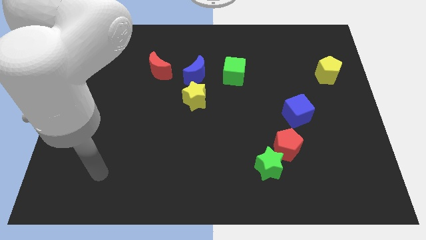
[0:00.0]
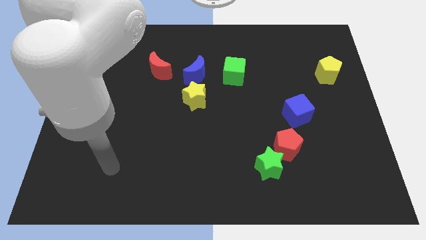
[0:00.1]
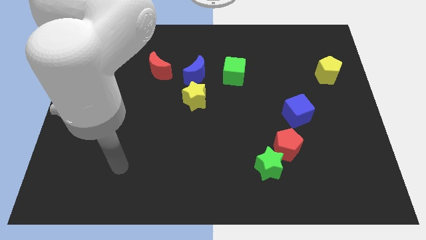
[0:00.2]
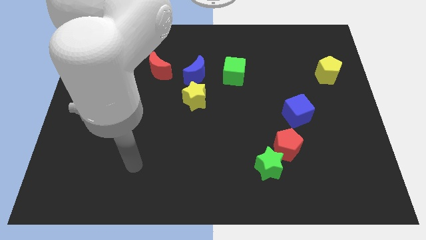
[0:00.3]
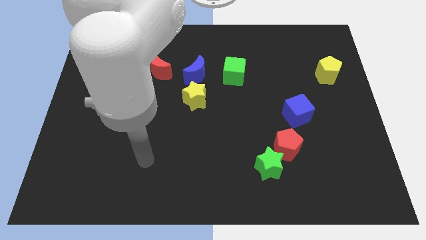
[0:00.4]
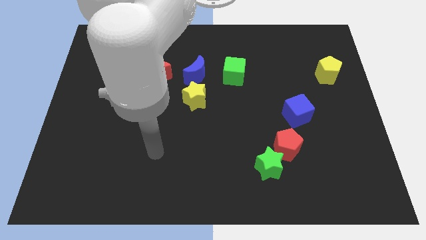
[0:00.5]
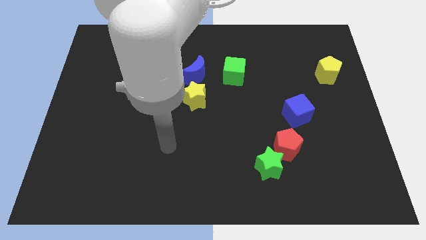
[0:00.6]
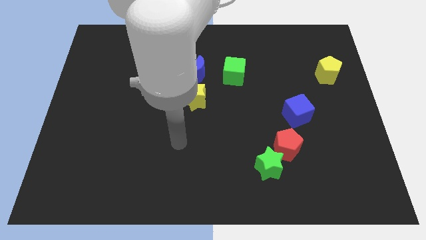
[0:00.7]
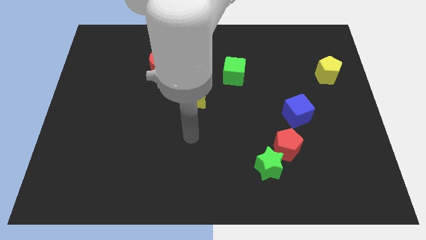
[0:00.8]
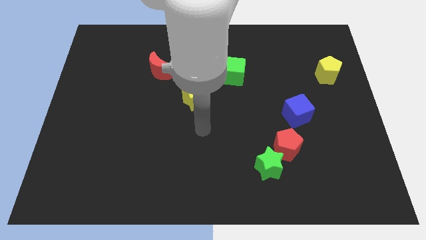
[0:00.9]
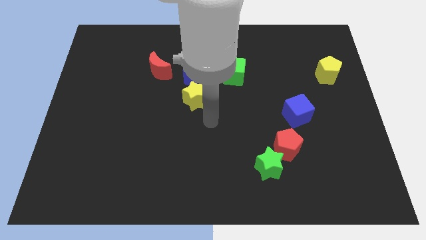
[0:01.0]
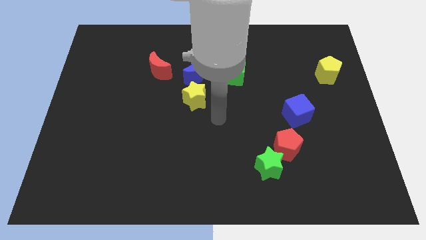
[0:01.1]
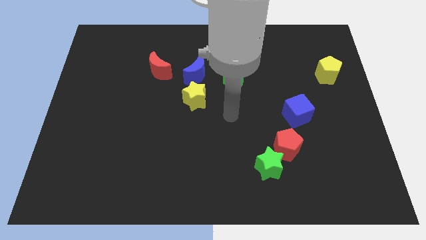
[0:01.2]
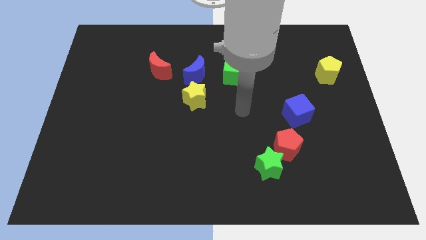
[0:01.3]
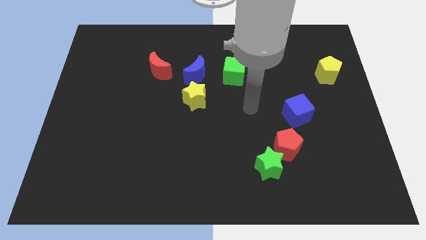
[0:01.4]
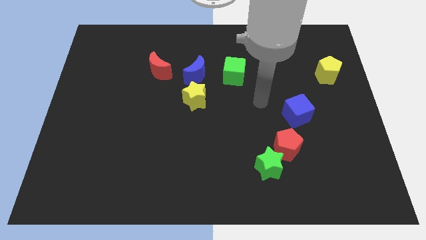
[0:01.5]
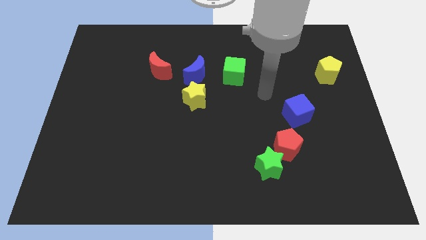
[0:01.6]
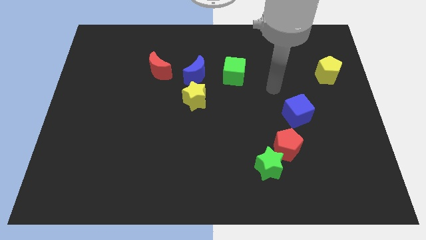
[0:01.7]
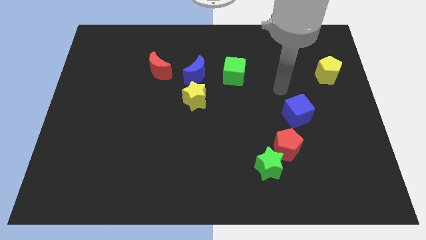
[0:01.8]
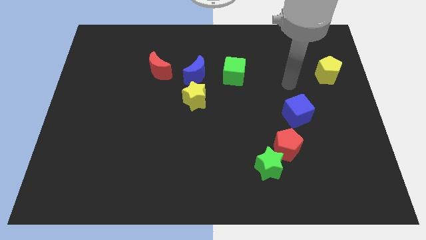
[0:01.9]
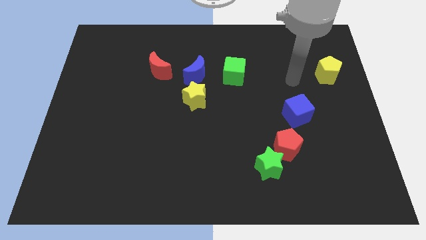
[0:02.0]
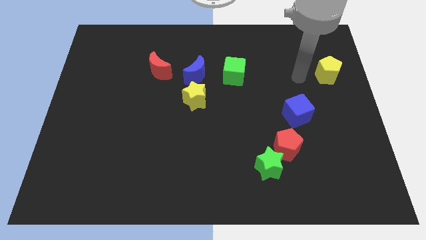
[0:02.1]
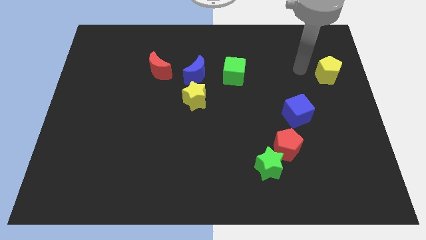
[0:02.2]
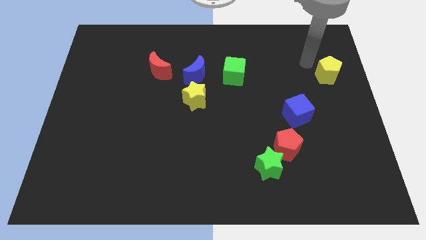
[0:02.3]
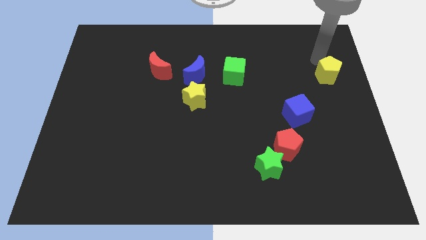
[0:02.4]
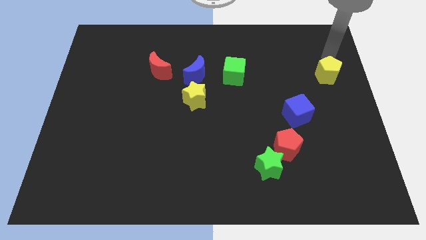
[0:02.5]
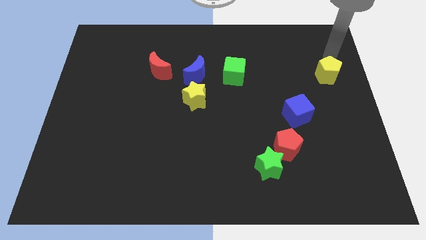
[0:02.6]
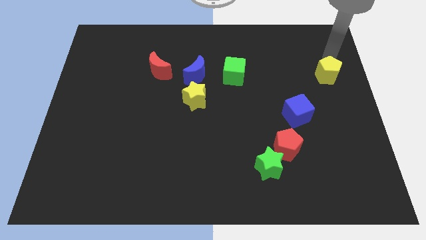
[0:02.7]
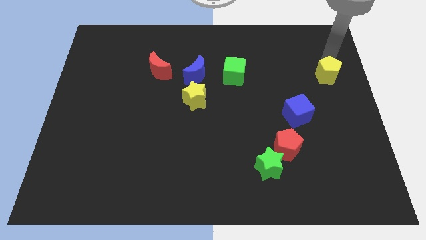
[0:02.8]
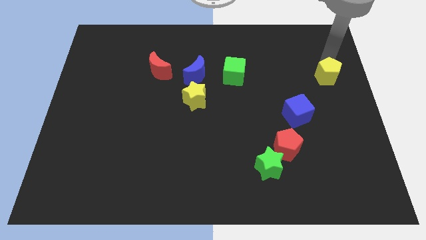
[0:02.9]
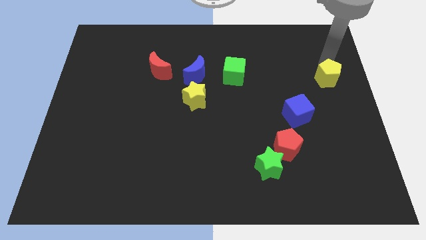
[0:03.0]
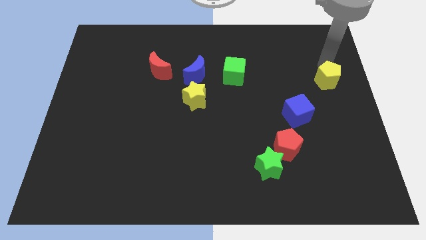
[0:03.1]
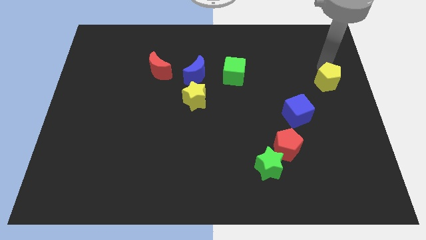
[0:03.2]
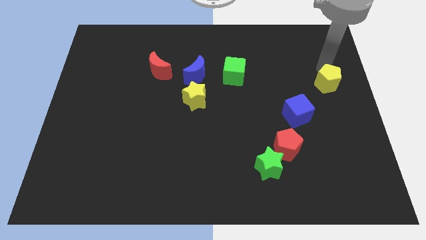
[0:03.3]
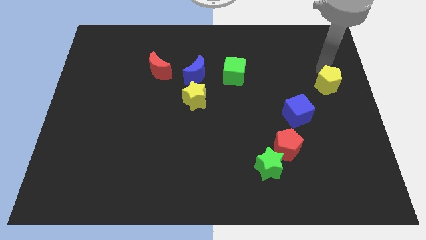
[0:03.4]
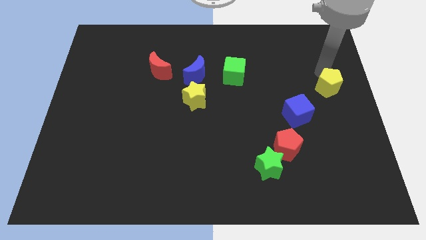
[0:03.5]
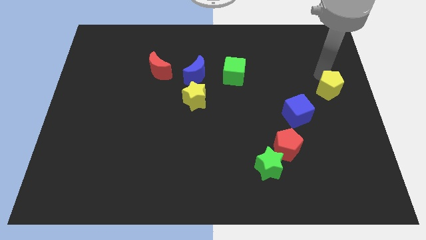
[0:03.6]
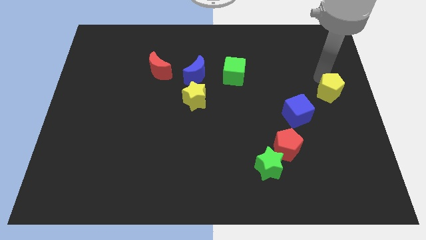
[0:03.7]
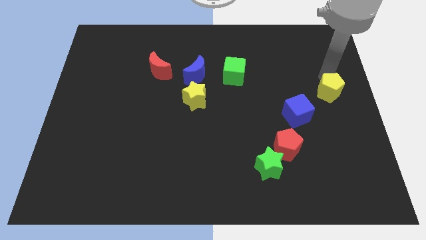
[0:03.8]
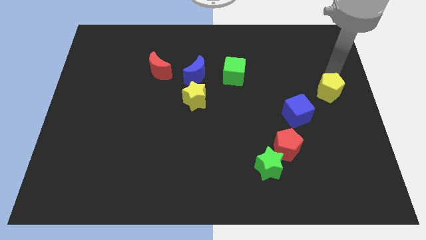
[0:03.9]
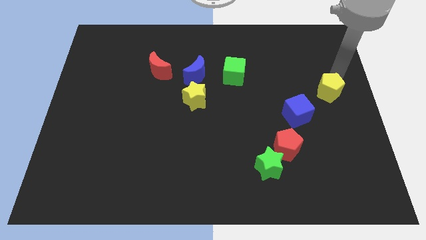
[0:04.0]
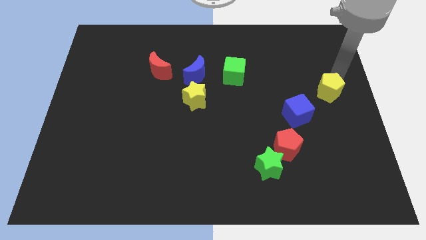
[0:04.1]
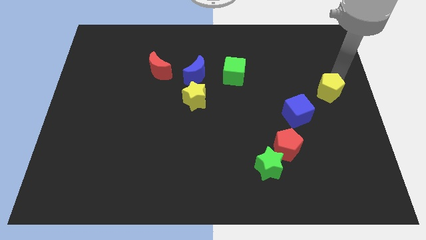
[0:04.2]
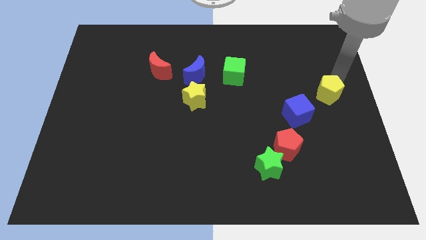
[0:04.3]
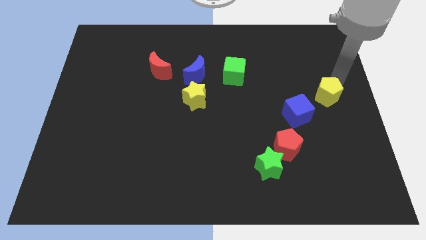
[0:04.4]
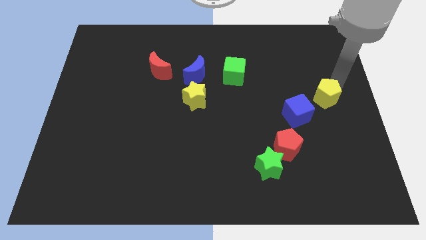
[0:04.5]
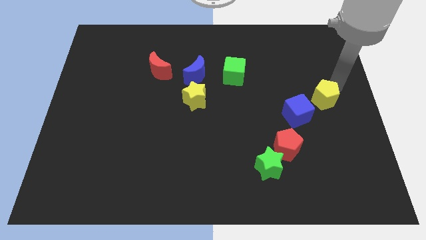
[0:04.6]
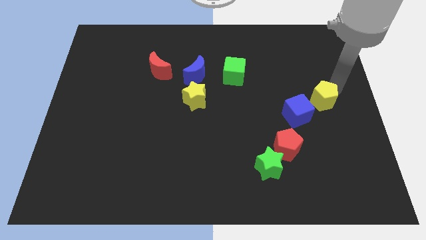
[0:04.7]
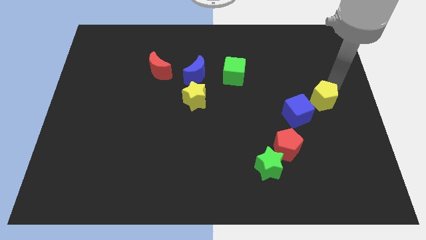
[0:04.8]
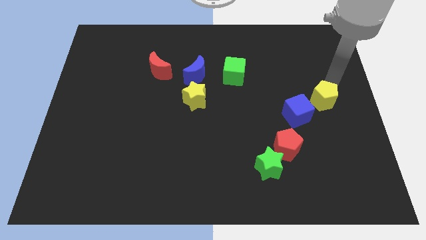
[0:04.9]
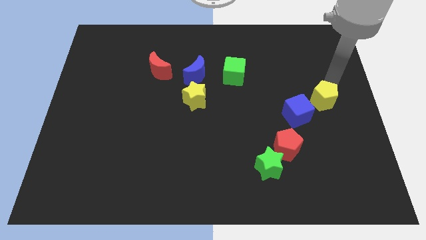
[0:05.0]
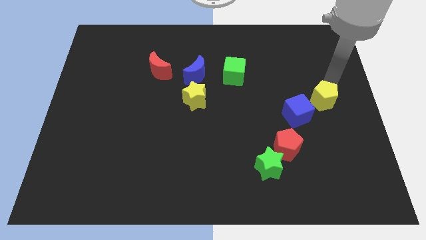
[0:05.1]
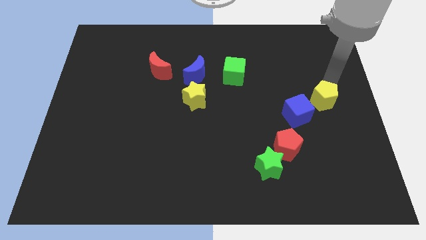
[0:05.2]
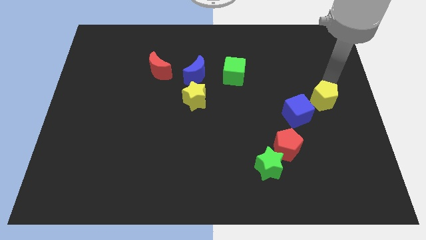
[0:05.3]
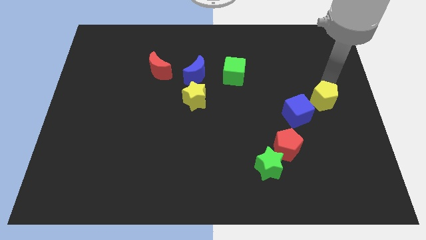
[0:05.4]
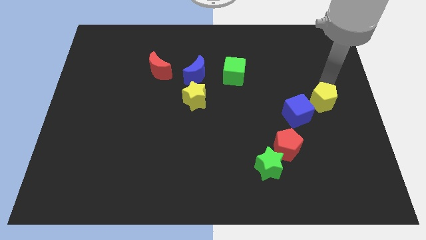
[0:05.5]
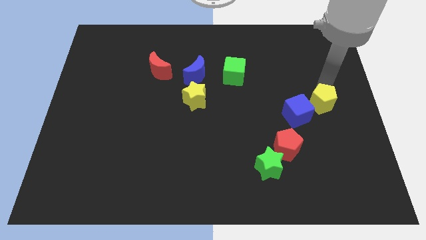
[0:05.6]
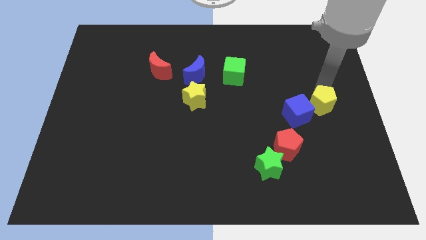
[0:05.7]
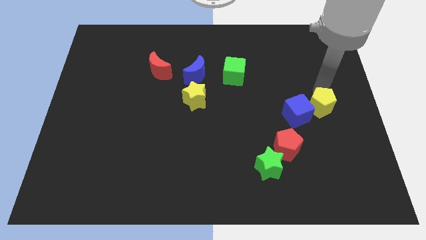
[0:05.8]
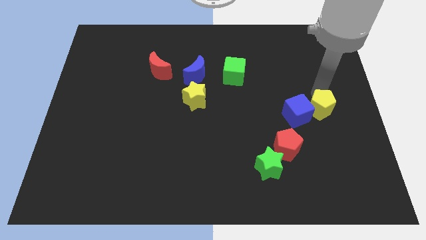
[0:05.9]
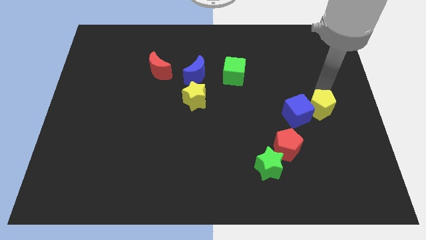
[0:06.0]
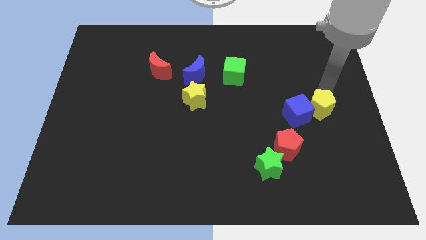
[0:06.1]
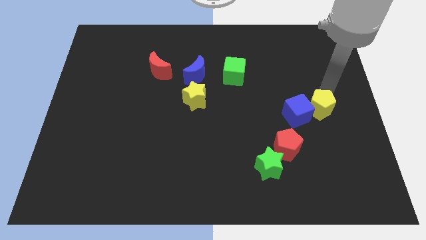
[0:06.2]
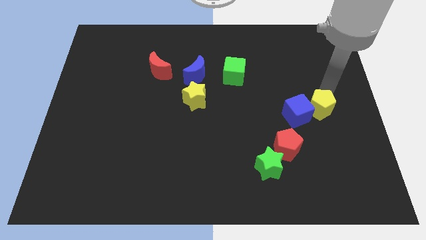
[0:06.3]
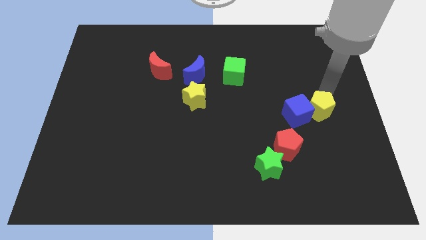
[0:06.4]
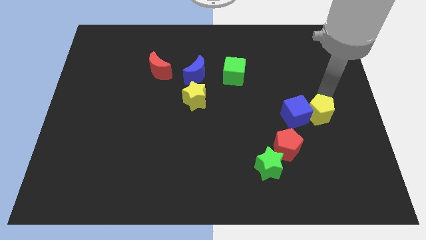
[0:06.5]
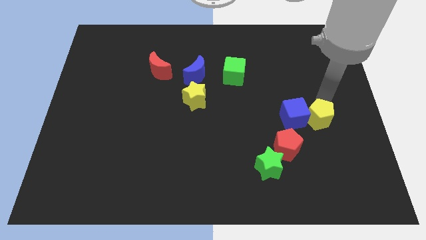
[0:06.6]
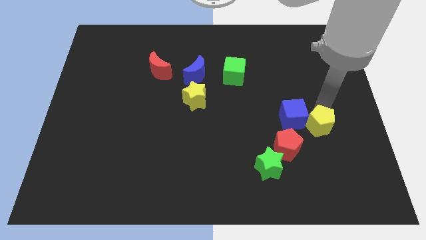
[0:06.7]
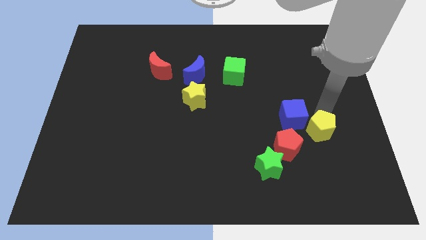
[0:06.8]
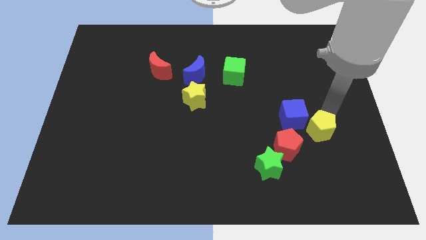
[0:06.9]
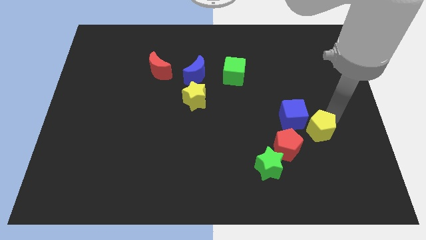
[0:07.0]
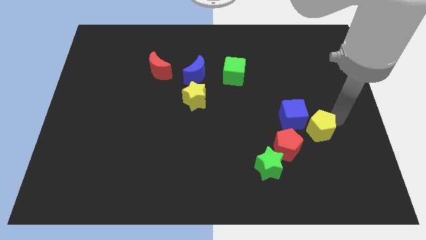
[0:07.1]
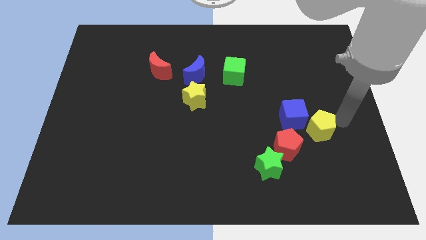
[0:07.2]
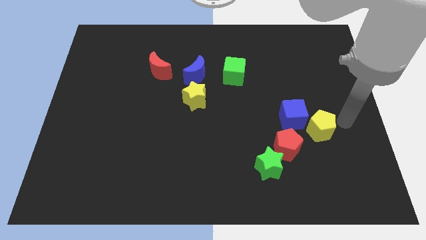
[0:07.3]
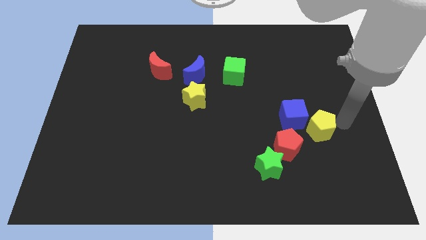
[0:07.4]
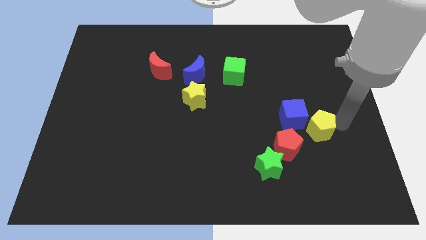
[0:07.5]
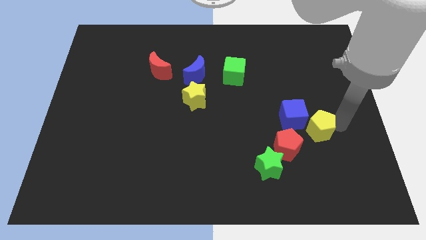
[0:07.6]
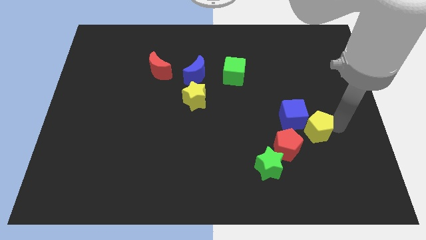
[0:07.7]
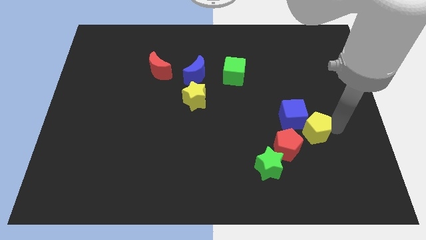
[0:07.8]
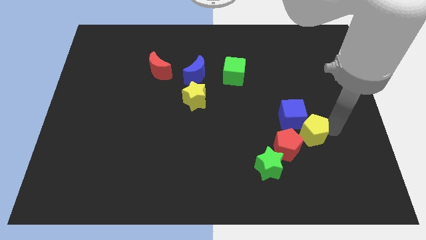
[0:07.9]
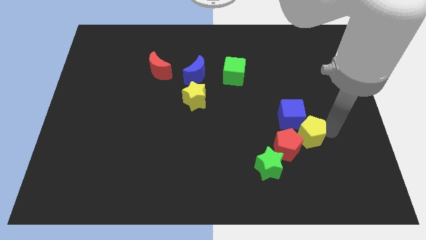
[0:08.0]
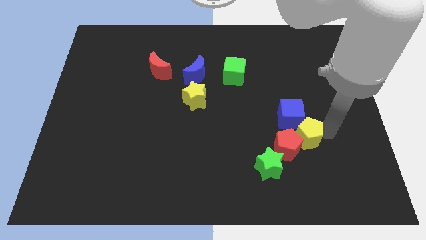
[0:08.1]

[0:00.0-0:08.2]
move the yellow pentagon close to the red pentagon
